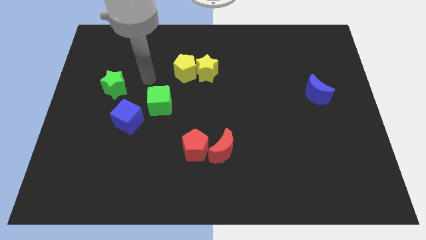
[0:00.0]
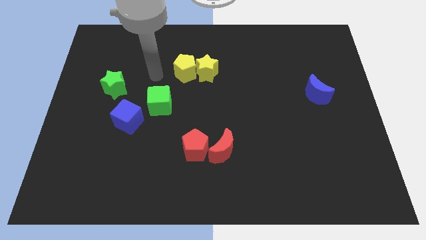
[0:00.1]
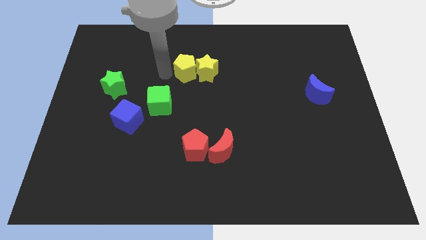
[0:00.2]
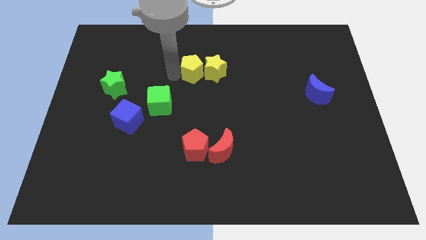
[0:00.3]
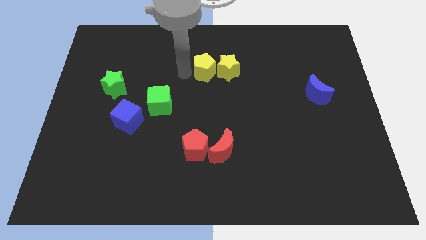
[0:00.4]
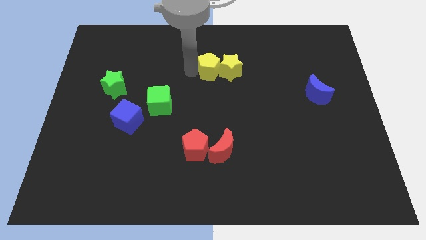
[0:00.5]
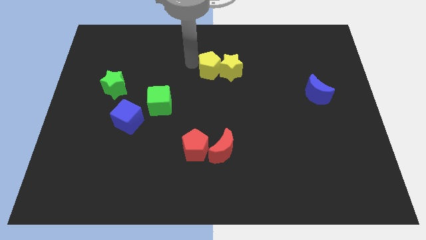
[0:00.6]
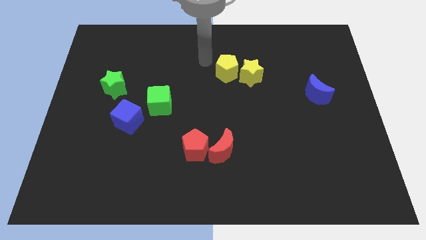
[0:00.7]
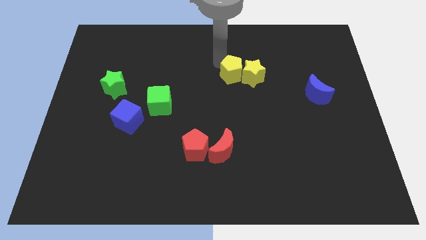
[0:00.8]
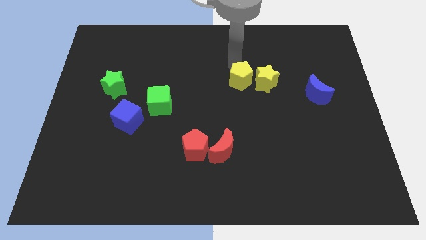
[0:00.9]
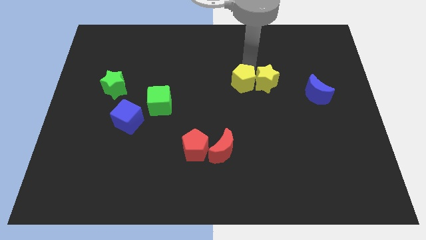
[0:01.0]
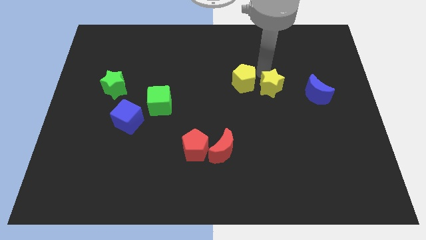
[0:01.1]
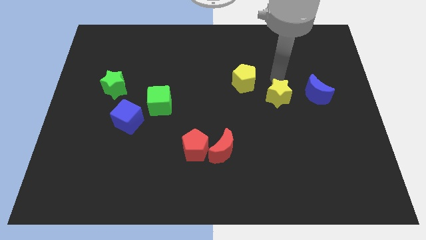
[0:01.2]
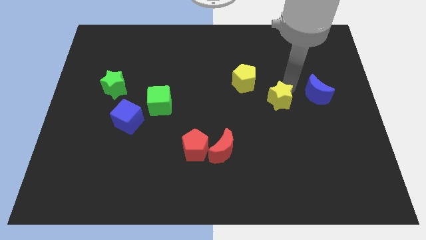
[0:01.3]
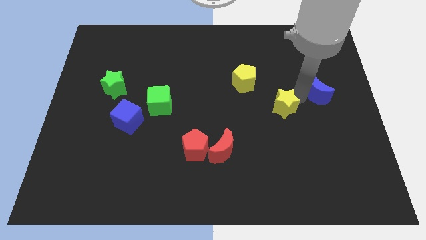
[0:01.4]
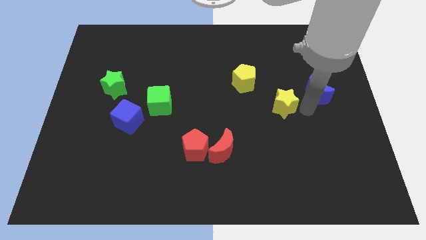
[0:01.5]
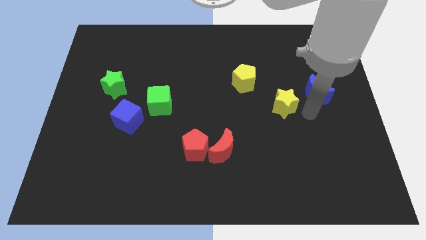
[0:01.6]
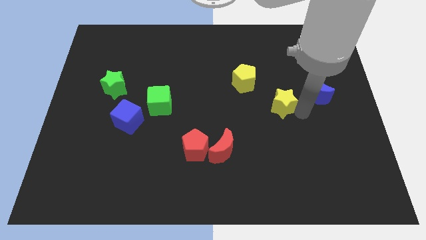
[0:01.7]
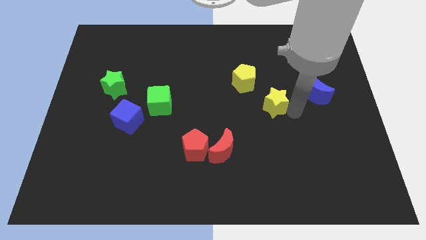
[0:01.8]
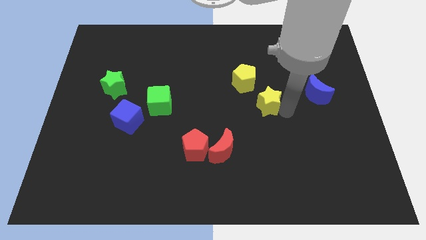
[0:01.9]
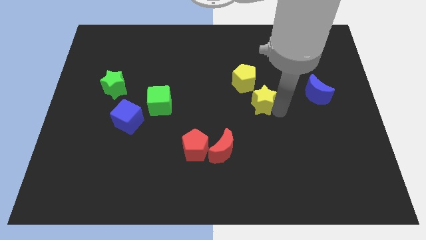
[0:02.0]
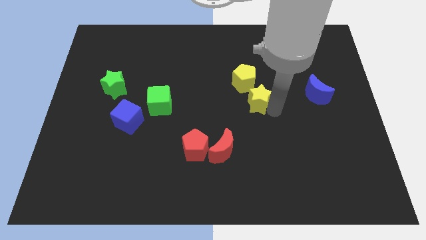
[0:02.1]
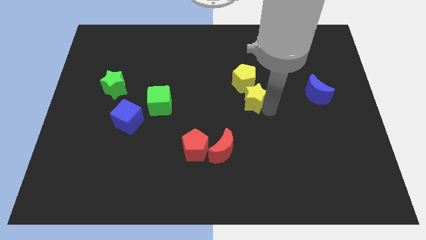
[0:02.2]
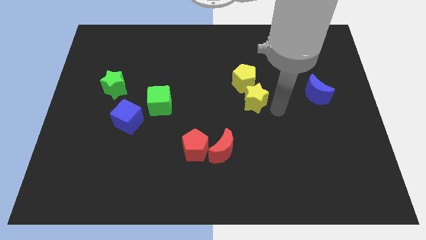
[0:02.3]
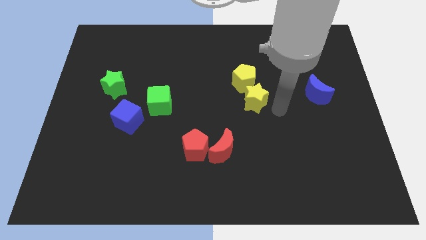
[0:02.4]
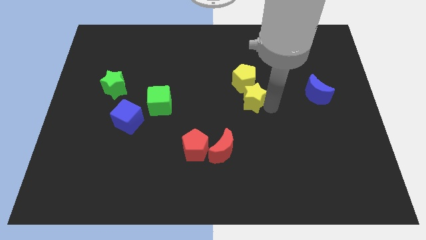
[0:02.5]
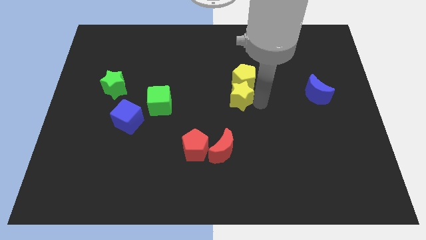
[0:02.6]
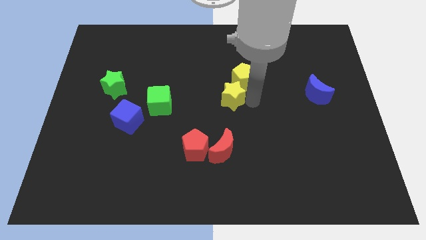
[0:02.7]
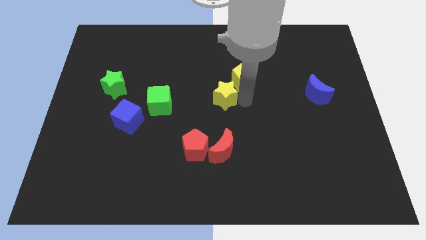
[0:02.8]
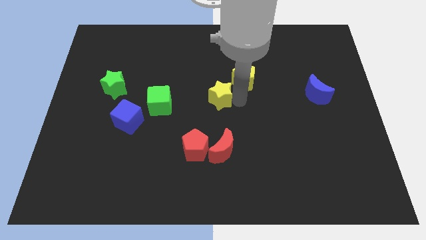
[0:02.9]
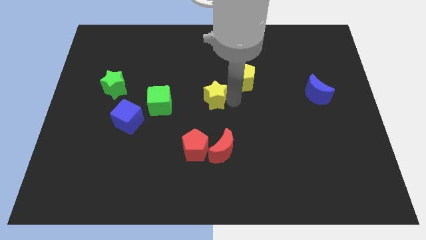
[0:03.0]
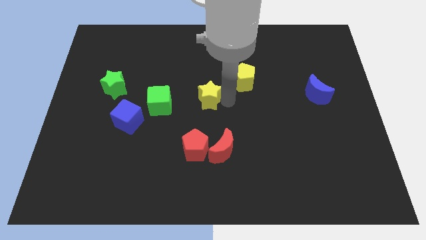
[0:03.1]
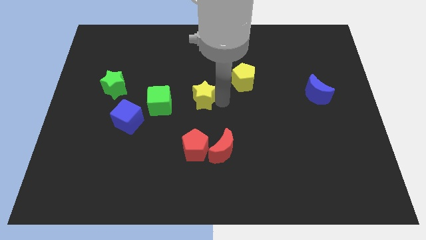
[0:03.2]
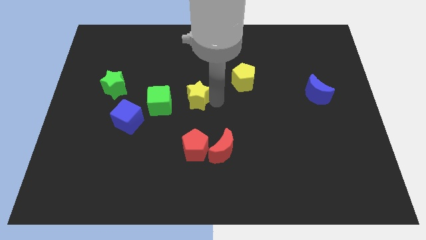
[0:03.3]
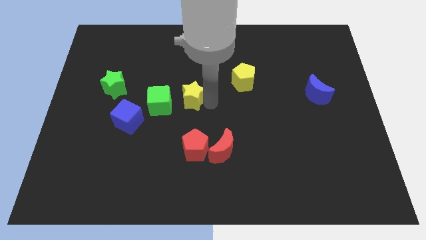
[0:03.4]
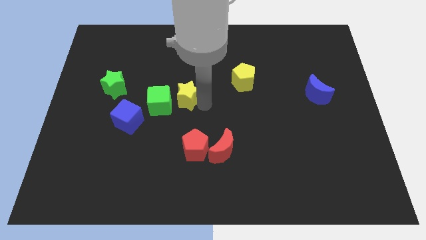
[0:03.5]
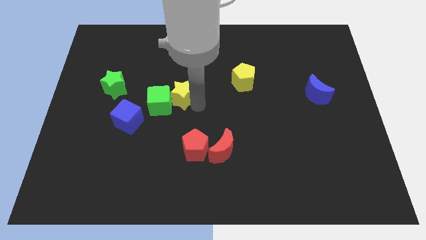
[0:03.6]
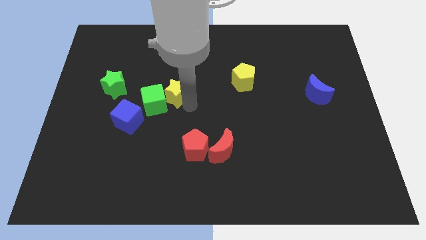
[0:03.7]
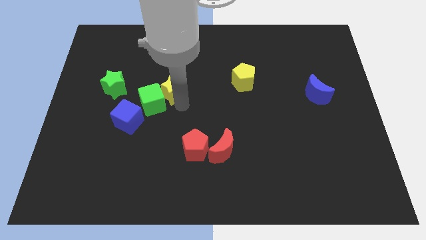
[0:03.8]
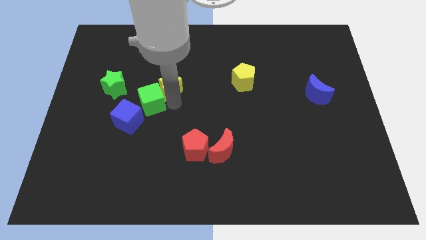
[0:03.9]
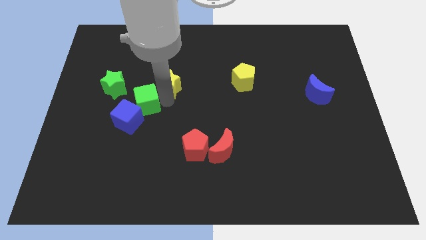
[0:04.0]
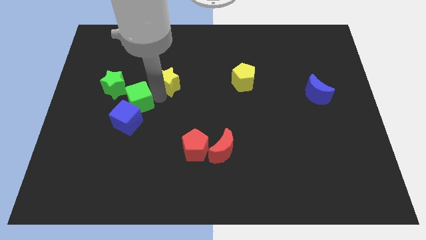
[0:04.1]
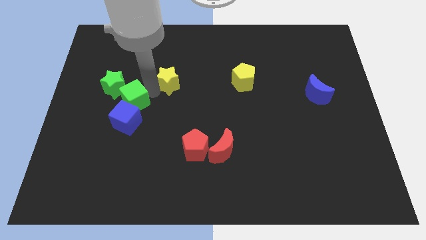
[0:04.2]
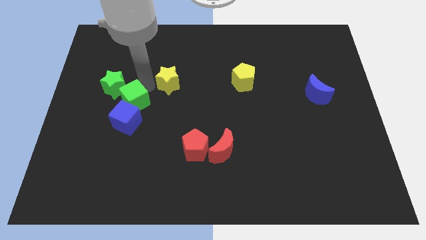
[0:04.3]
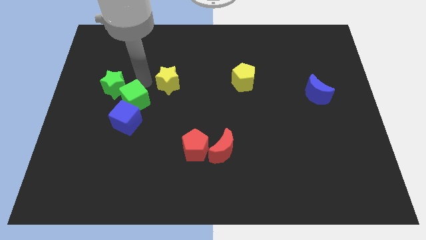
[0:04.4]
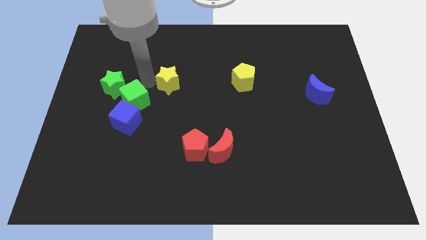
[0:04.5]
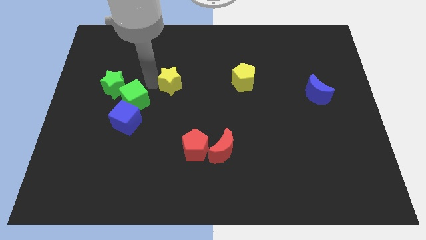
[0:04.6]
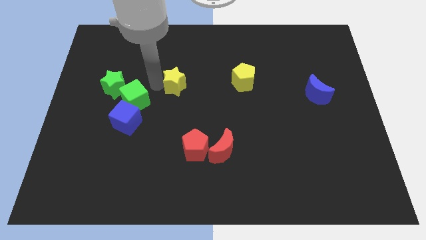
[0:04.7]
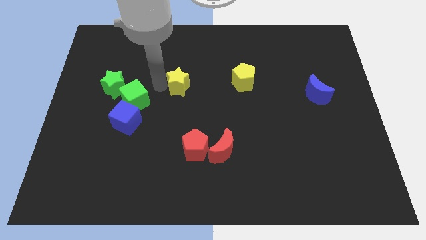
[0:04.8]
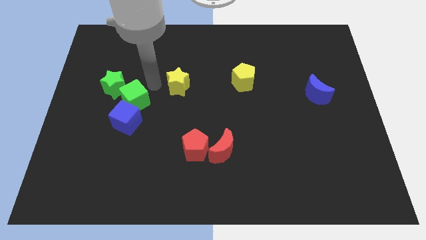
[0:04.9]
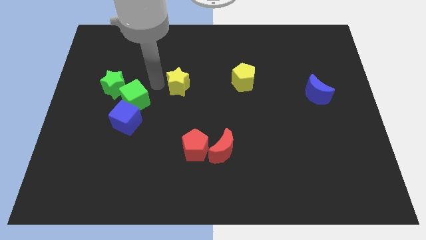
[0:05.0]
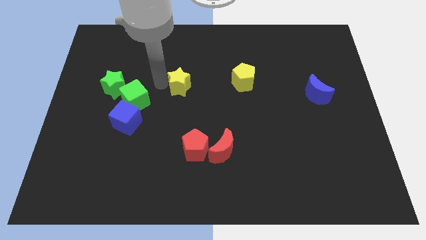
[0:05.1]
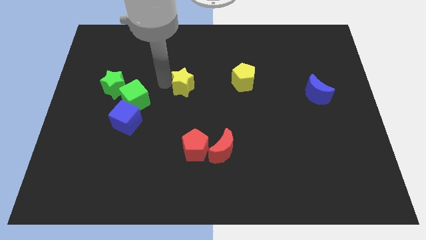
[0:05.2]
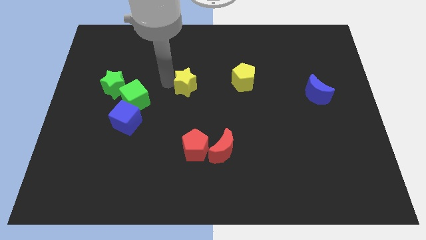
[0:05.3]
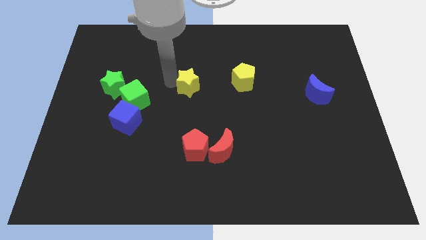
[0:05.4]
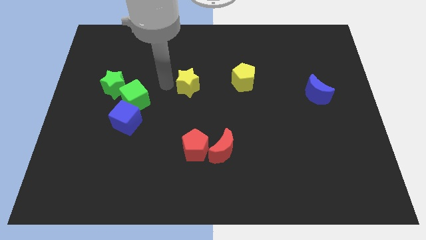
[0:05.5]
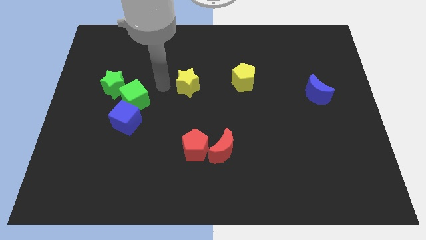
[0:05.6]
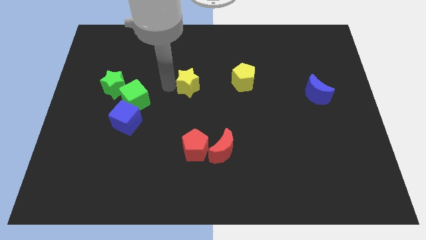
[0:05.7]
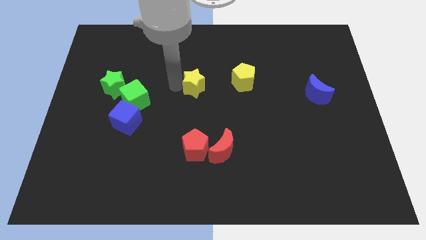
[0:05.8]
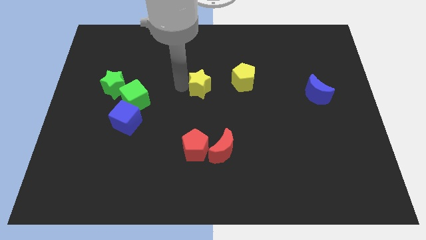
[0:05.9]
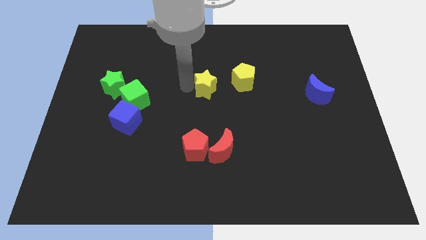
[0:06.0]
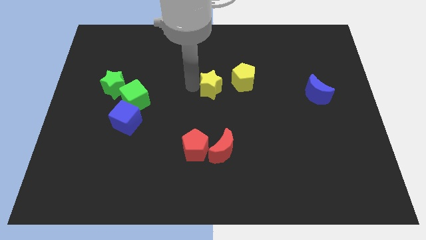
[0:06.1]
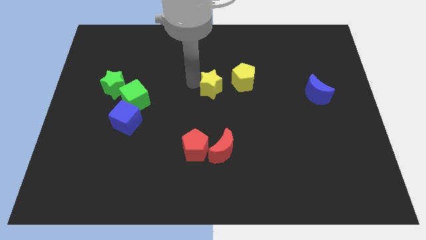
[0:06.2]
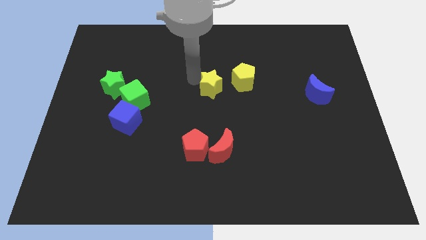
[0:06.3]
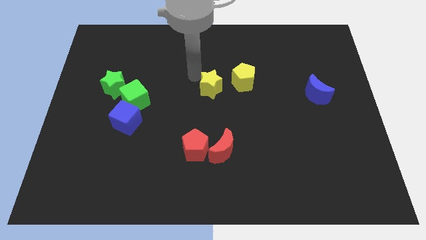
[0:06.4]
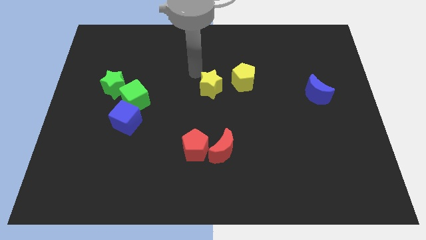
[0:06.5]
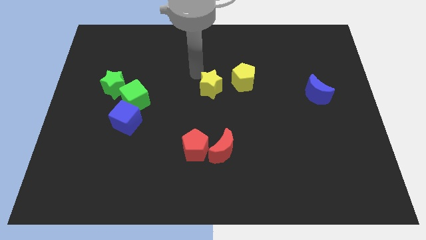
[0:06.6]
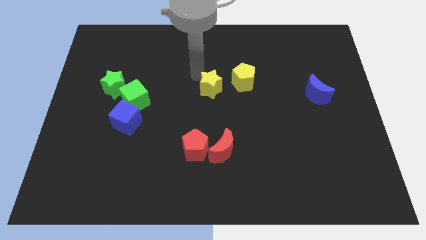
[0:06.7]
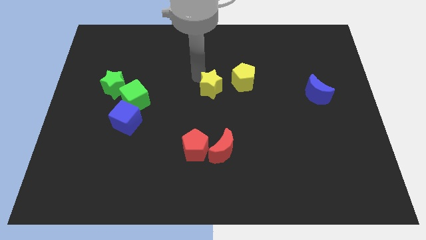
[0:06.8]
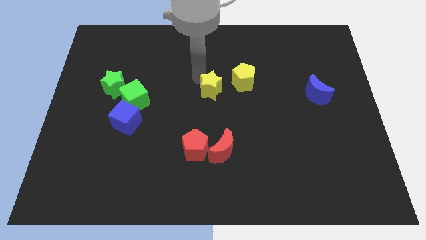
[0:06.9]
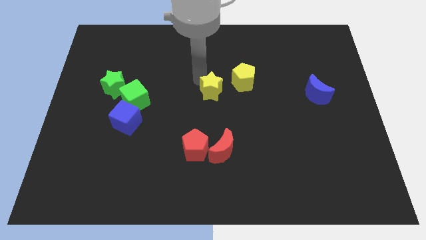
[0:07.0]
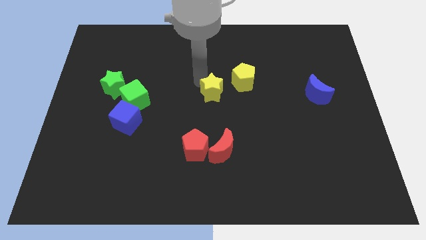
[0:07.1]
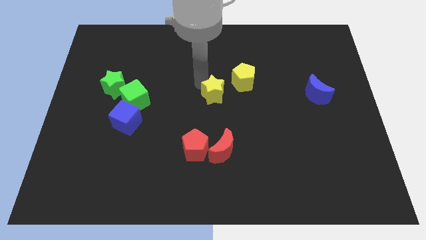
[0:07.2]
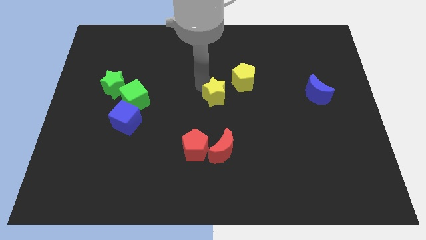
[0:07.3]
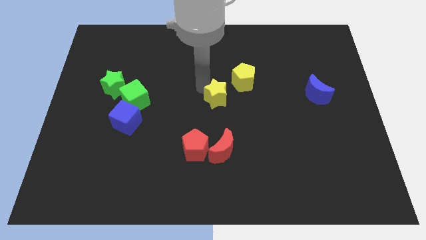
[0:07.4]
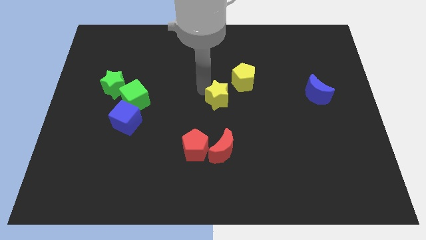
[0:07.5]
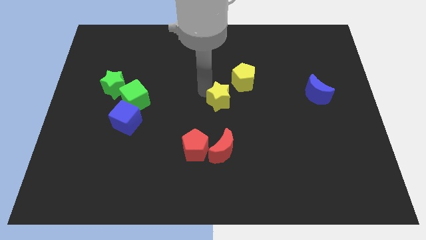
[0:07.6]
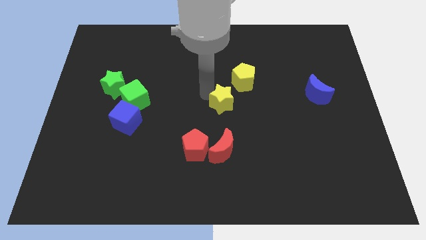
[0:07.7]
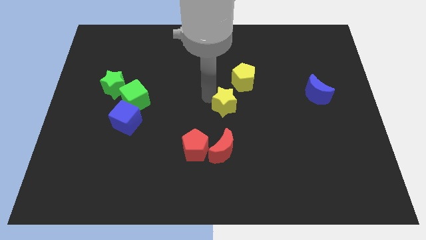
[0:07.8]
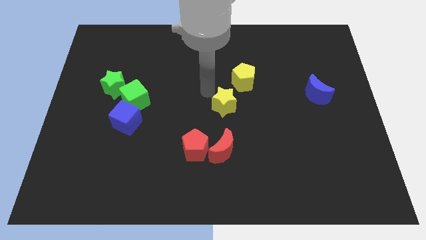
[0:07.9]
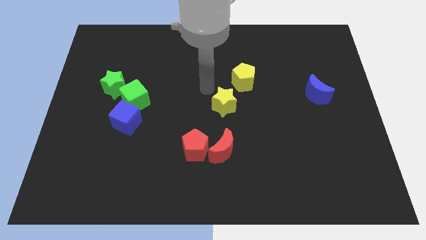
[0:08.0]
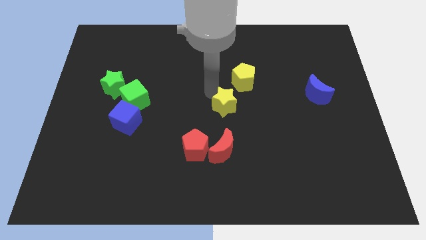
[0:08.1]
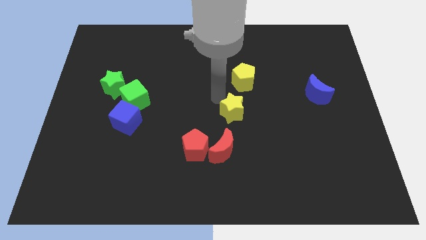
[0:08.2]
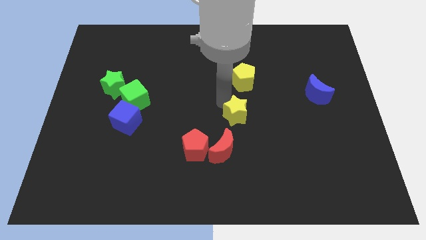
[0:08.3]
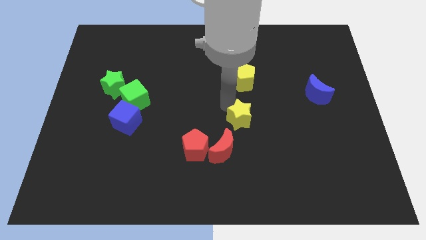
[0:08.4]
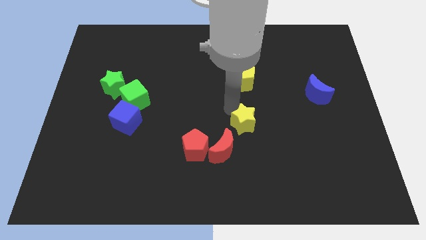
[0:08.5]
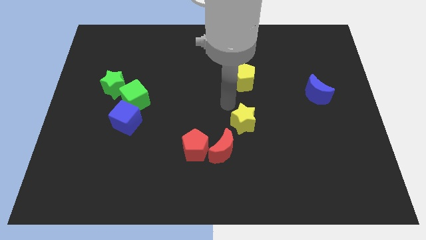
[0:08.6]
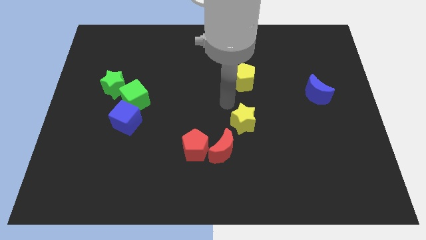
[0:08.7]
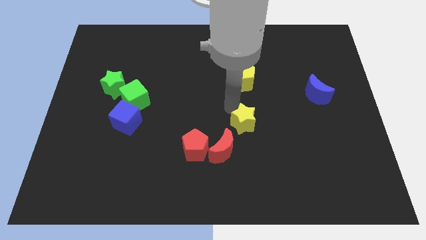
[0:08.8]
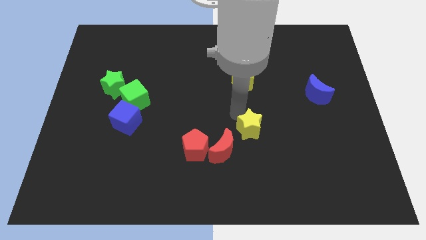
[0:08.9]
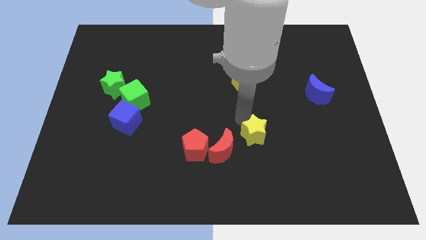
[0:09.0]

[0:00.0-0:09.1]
move the yellow star just right of the red moon
